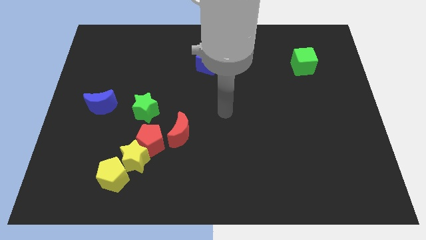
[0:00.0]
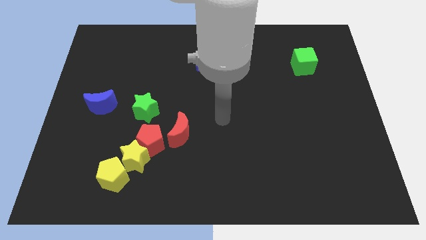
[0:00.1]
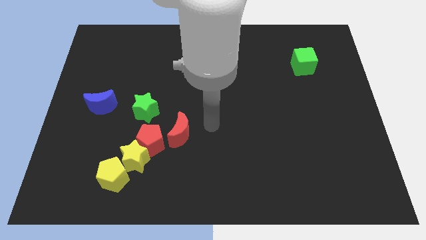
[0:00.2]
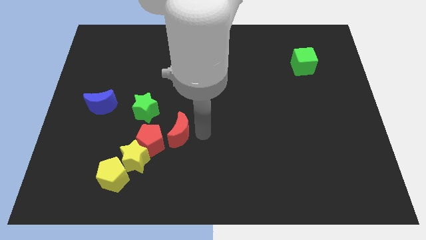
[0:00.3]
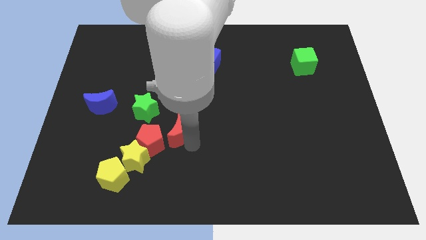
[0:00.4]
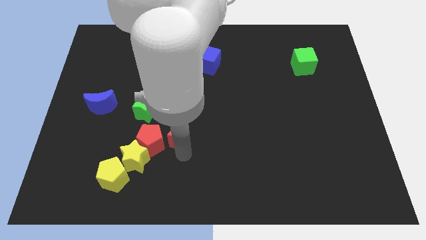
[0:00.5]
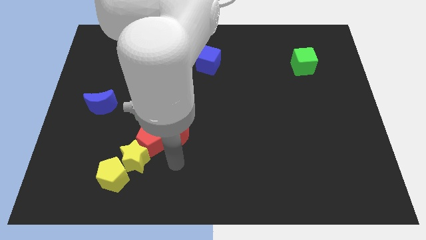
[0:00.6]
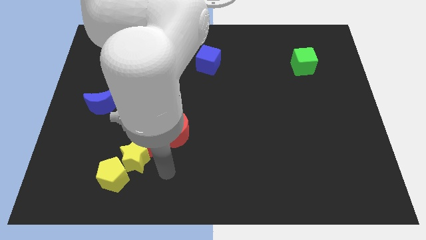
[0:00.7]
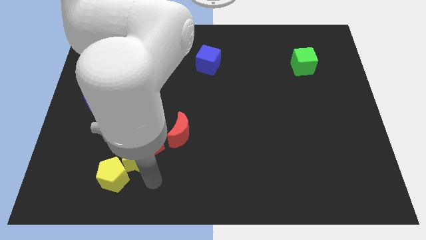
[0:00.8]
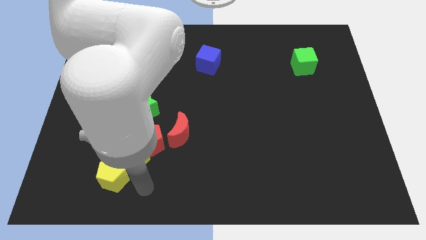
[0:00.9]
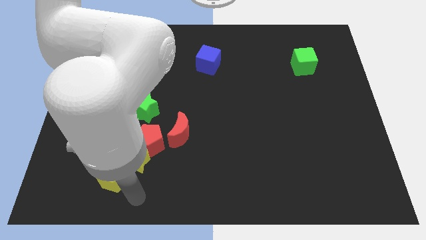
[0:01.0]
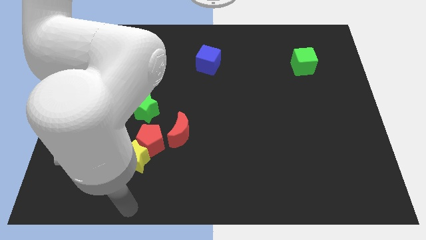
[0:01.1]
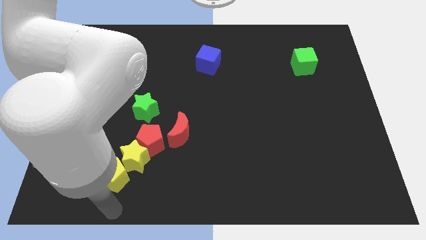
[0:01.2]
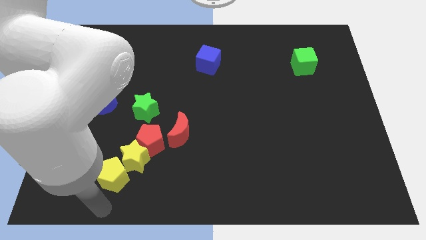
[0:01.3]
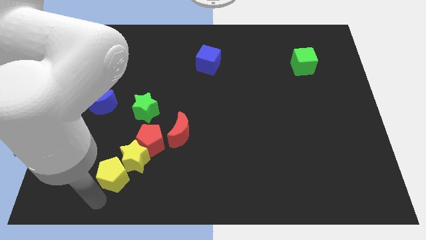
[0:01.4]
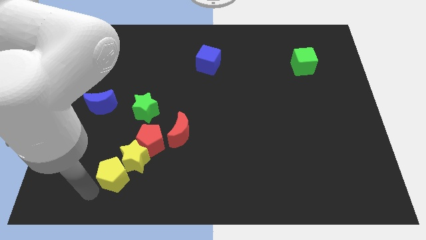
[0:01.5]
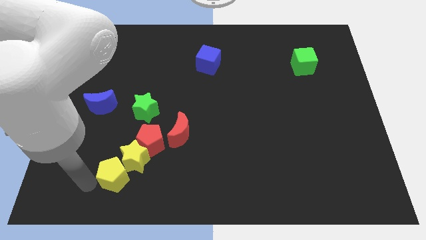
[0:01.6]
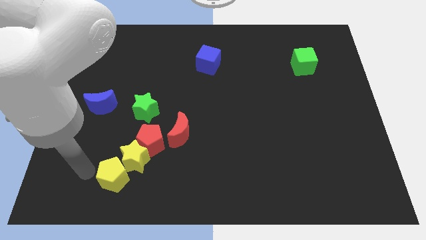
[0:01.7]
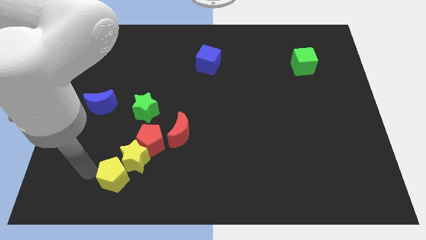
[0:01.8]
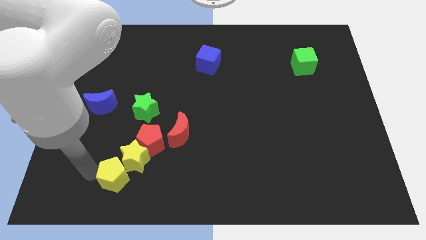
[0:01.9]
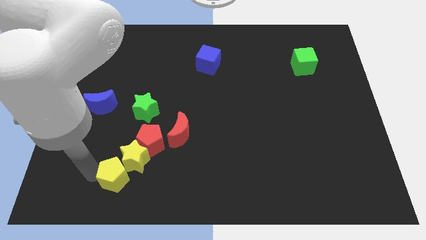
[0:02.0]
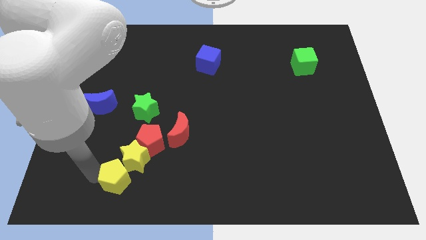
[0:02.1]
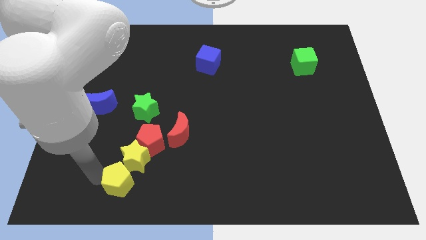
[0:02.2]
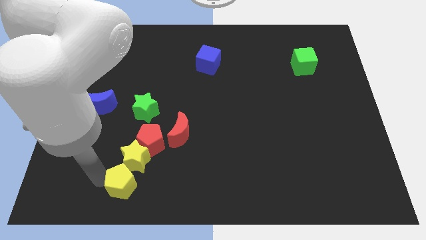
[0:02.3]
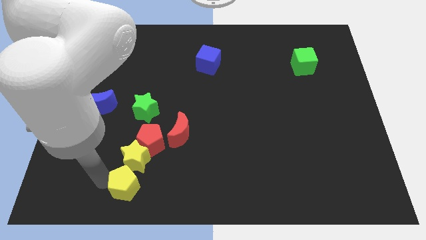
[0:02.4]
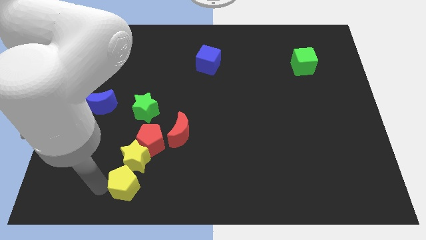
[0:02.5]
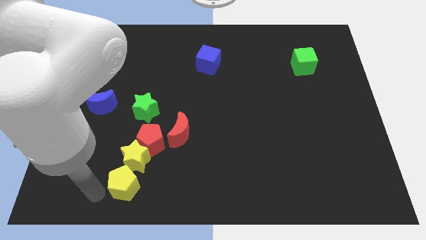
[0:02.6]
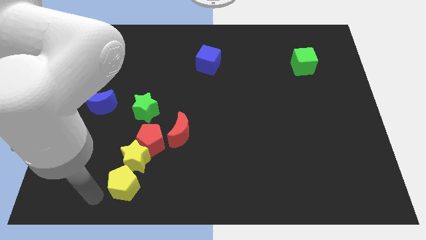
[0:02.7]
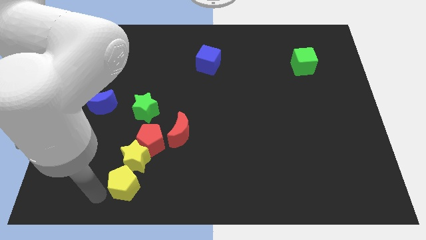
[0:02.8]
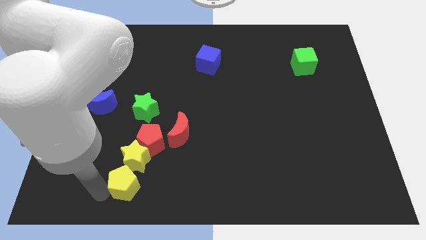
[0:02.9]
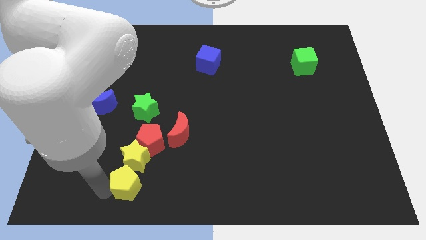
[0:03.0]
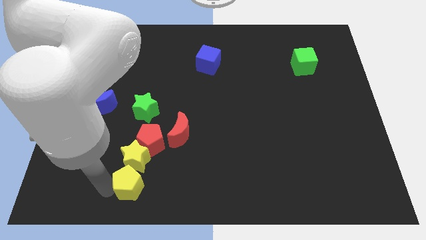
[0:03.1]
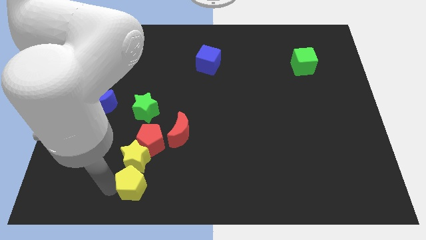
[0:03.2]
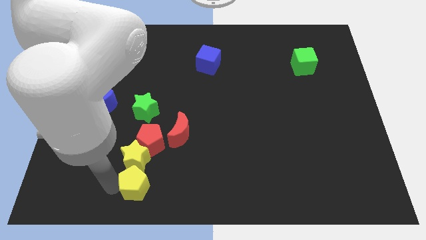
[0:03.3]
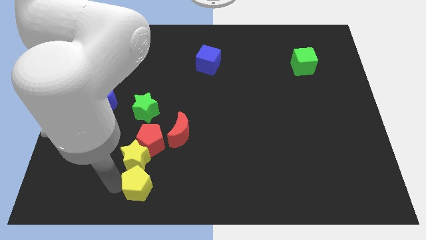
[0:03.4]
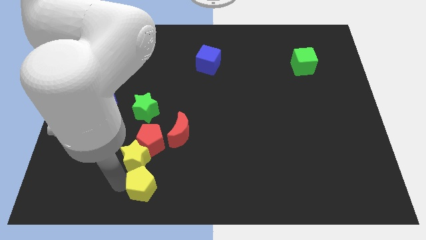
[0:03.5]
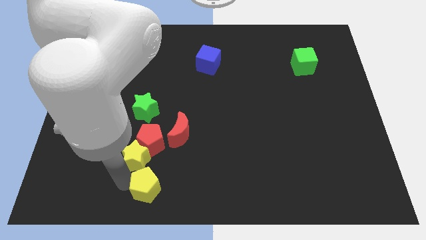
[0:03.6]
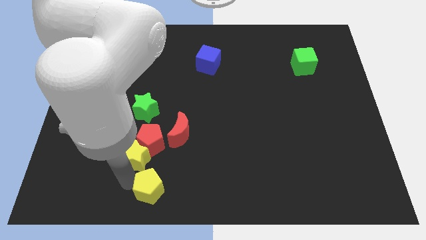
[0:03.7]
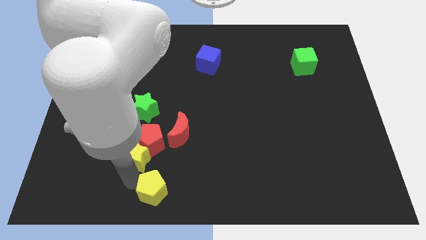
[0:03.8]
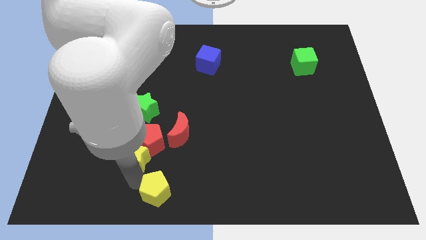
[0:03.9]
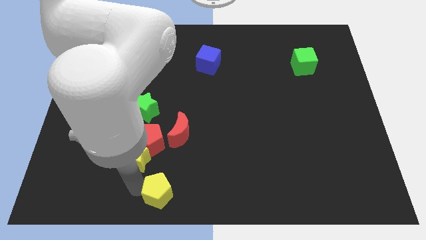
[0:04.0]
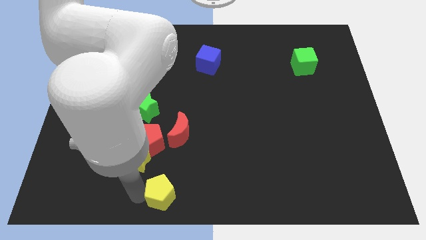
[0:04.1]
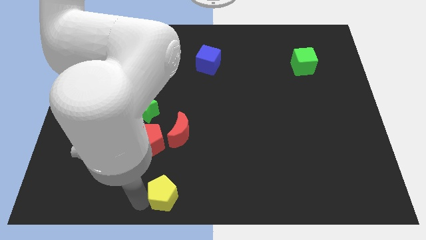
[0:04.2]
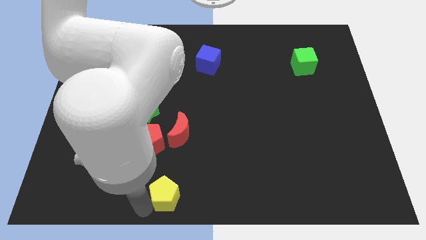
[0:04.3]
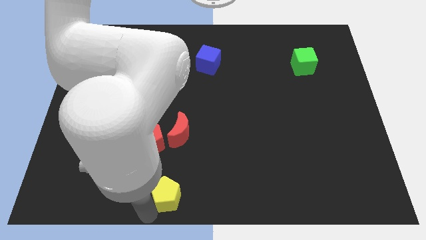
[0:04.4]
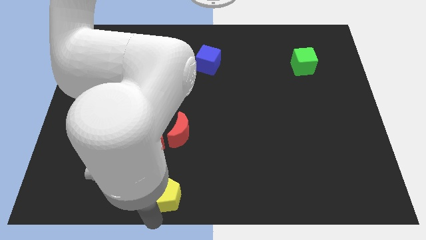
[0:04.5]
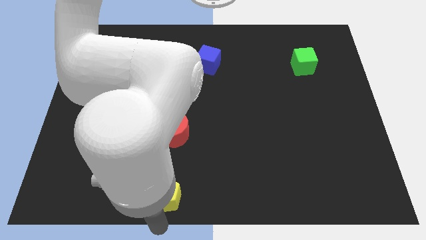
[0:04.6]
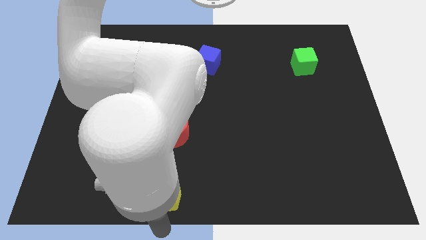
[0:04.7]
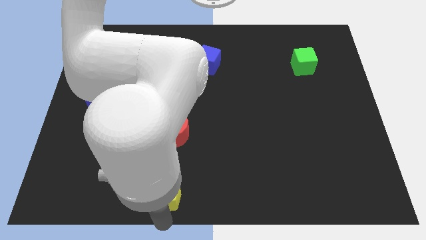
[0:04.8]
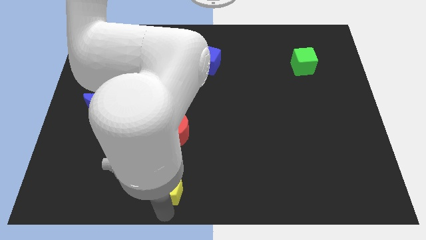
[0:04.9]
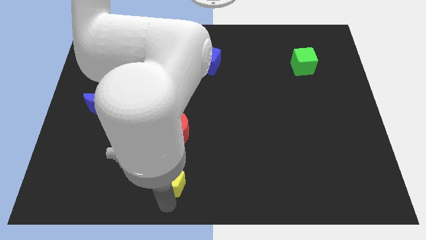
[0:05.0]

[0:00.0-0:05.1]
push the yellow pentagon to the bottom right side of the red pentagon

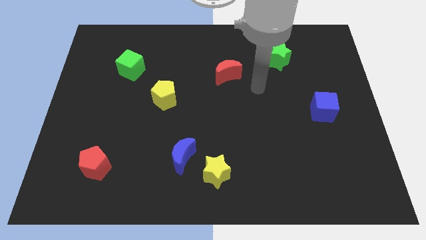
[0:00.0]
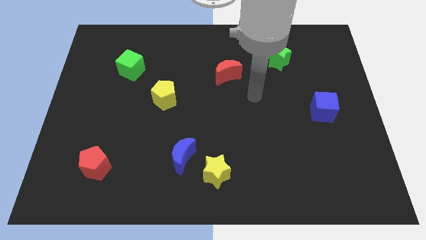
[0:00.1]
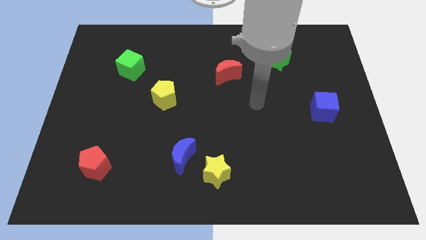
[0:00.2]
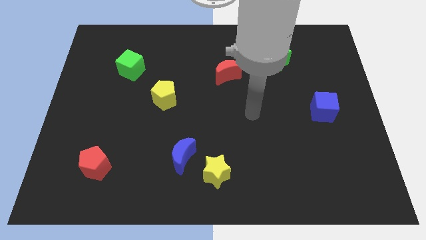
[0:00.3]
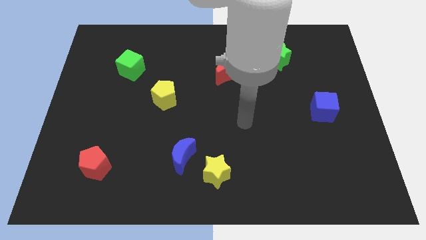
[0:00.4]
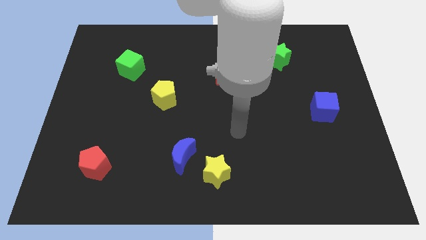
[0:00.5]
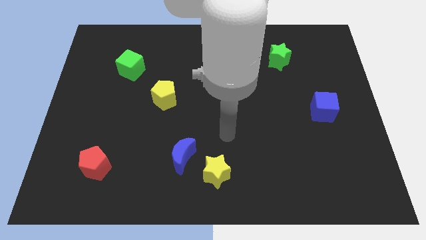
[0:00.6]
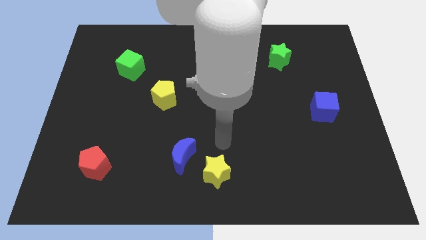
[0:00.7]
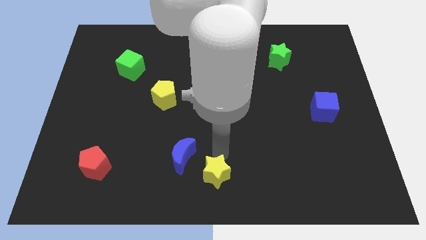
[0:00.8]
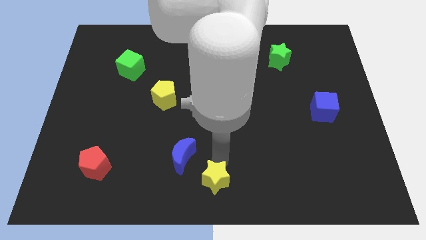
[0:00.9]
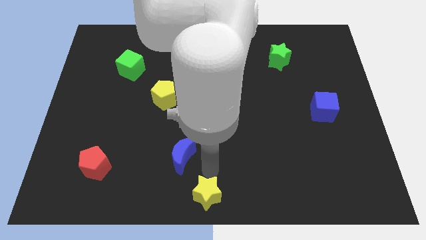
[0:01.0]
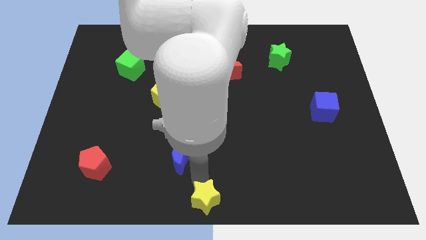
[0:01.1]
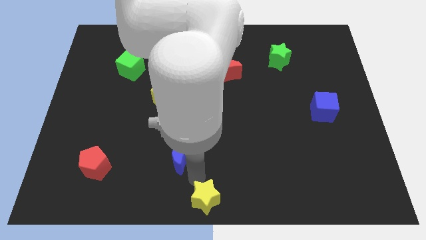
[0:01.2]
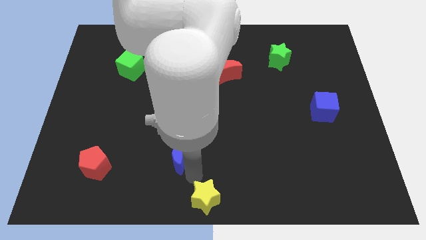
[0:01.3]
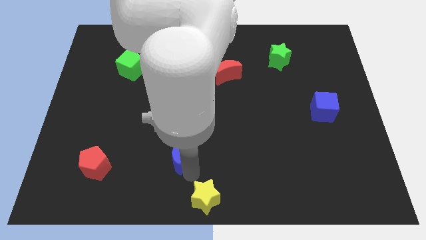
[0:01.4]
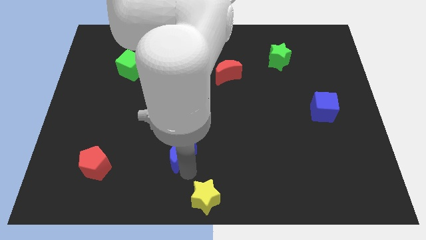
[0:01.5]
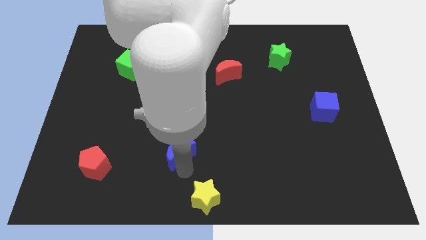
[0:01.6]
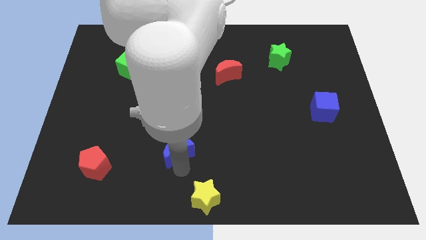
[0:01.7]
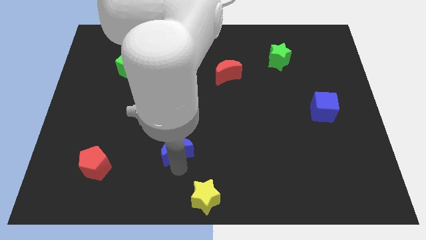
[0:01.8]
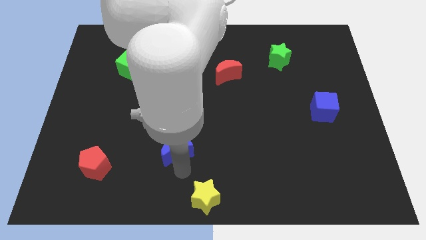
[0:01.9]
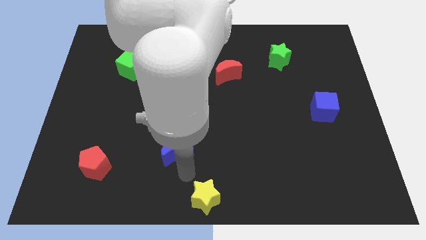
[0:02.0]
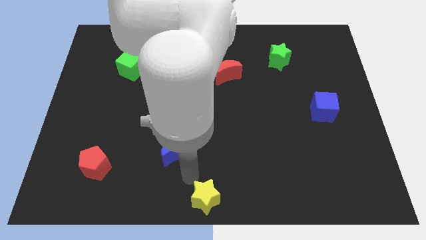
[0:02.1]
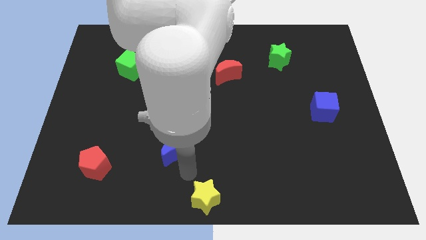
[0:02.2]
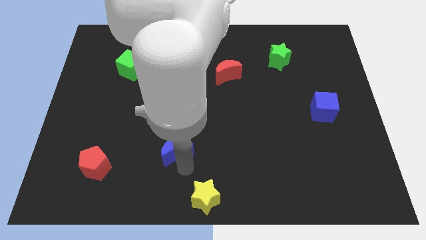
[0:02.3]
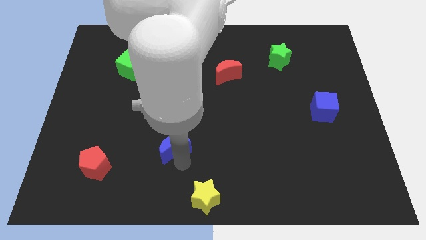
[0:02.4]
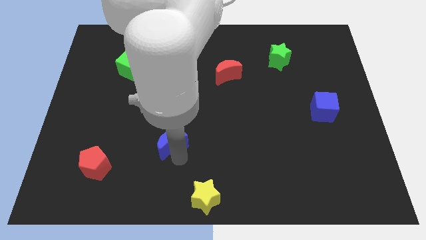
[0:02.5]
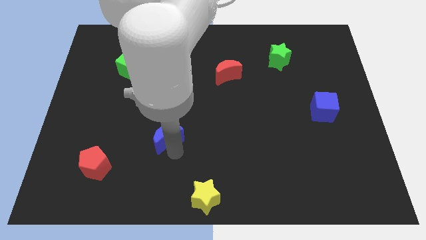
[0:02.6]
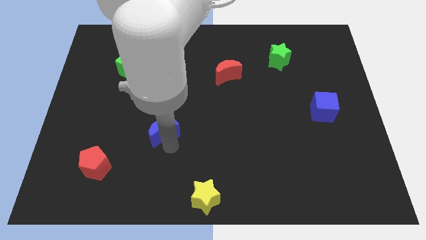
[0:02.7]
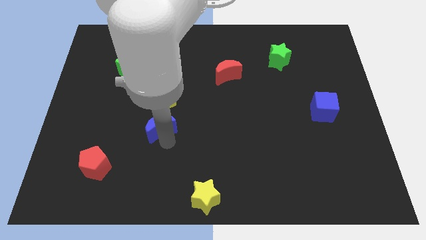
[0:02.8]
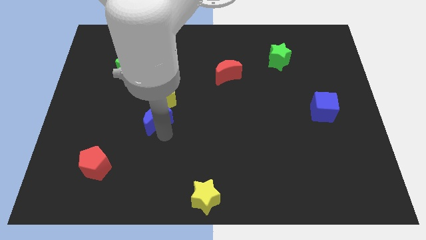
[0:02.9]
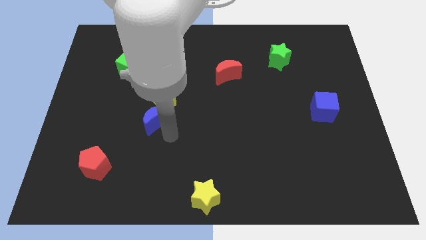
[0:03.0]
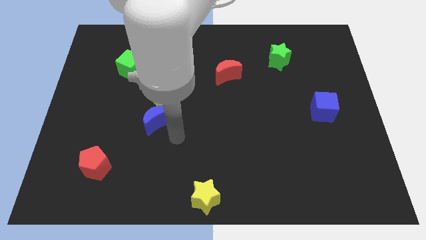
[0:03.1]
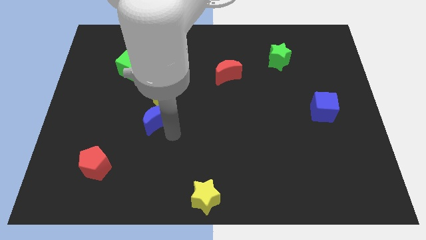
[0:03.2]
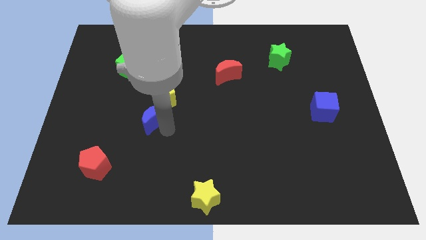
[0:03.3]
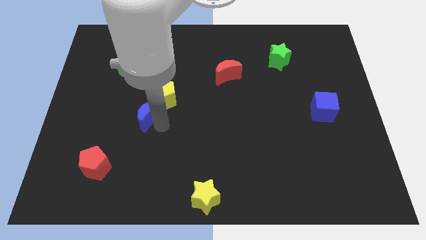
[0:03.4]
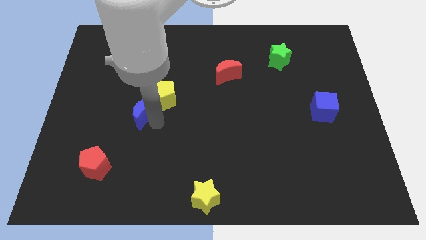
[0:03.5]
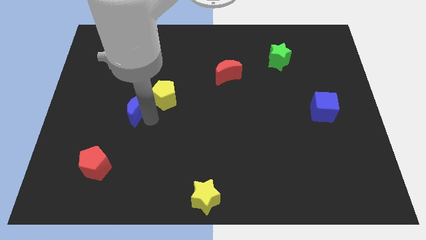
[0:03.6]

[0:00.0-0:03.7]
push the blue moon to the bottom side of the green cube
